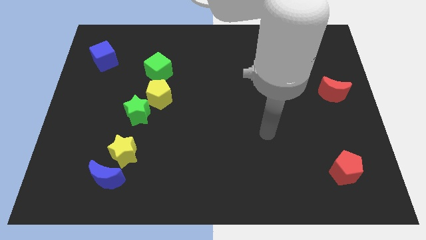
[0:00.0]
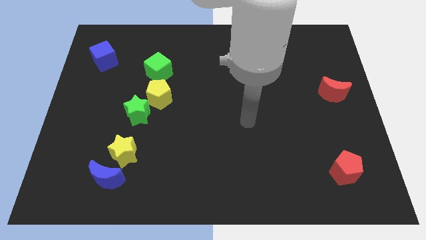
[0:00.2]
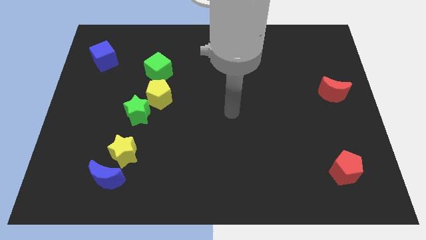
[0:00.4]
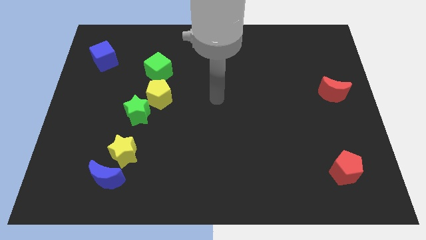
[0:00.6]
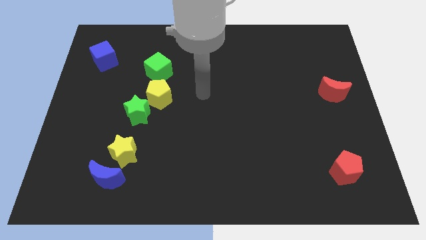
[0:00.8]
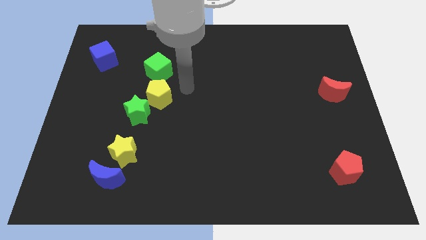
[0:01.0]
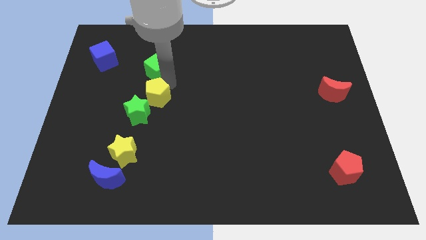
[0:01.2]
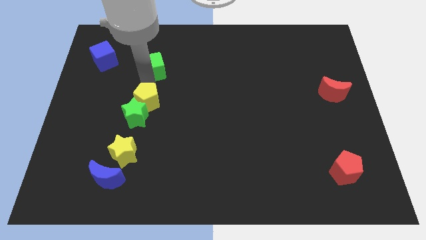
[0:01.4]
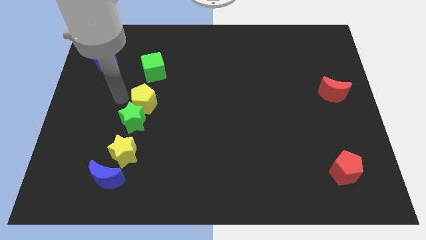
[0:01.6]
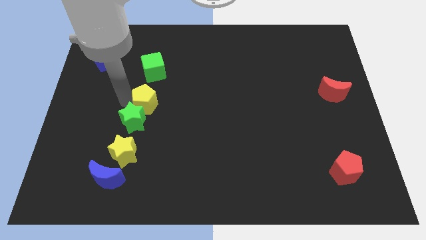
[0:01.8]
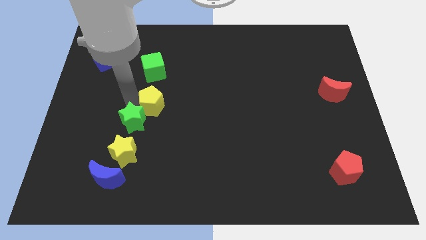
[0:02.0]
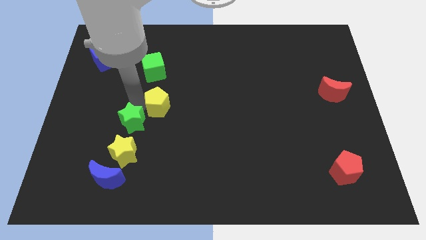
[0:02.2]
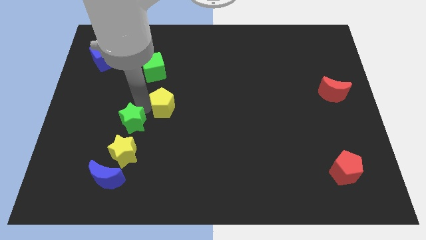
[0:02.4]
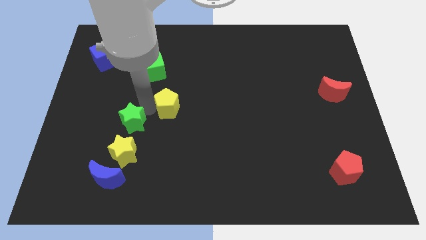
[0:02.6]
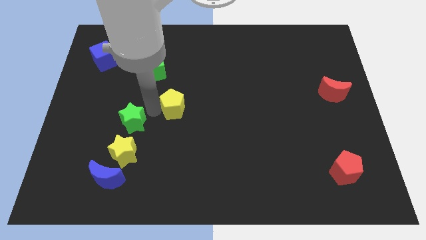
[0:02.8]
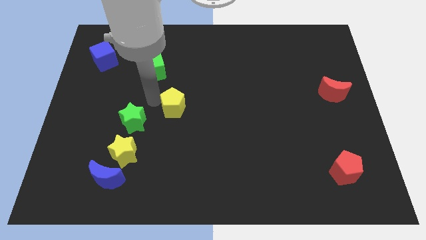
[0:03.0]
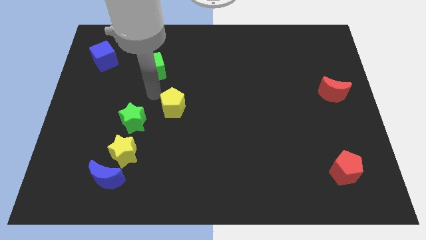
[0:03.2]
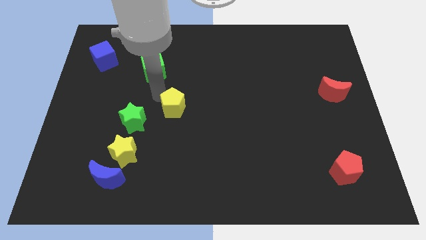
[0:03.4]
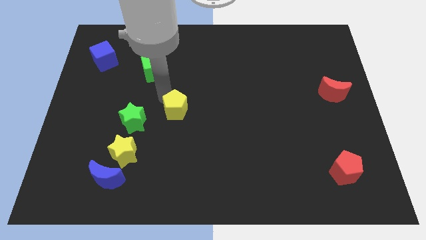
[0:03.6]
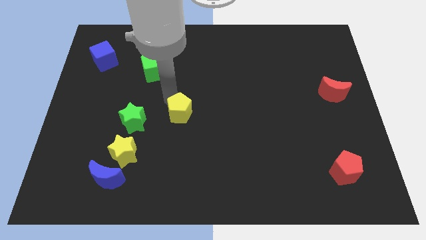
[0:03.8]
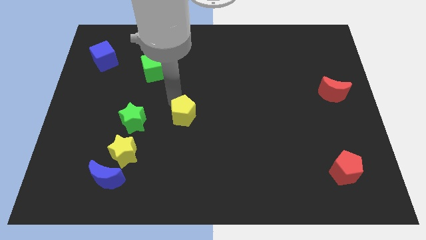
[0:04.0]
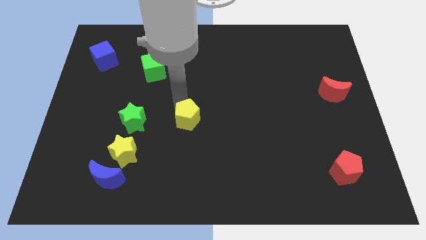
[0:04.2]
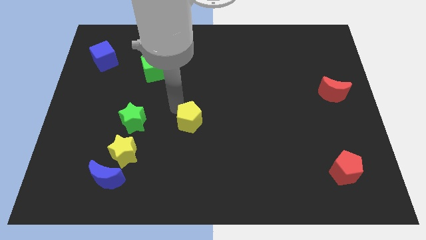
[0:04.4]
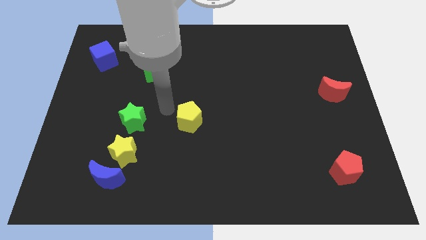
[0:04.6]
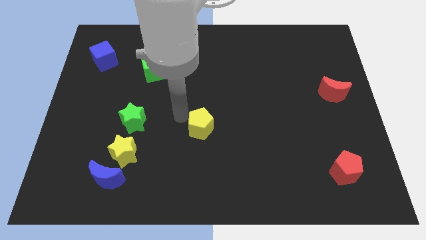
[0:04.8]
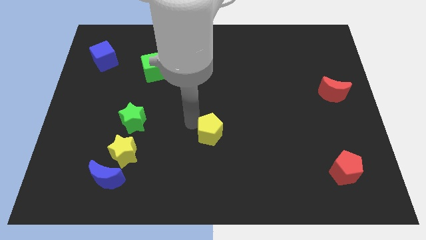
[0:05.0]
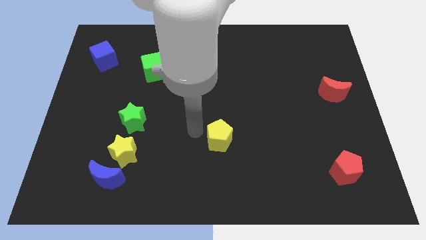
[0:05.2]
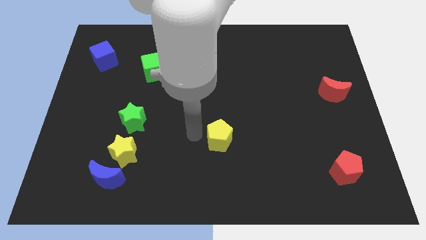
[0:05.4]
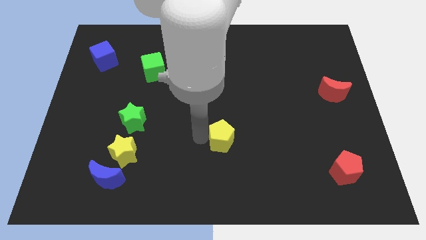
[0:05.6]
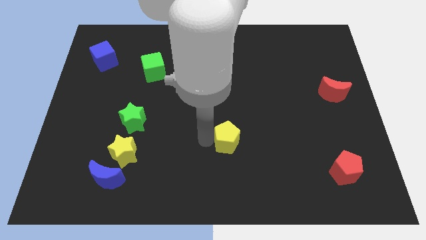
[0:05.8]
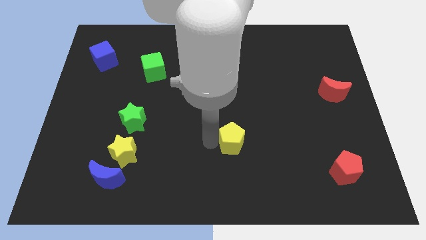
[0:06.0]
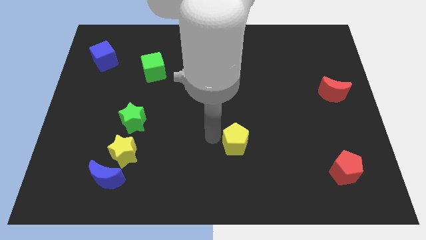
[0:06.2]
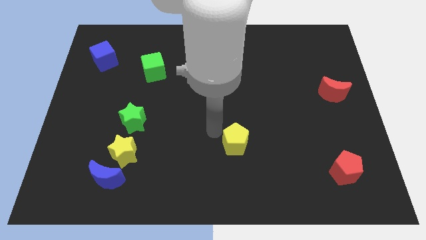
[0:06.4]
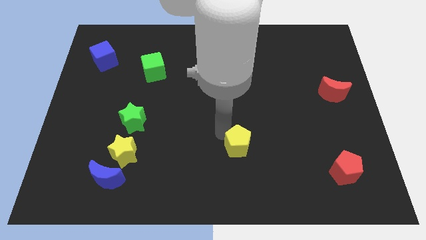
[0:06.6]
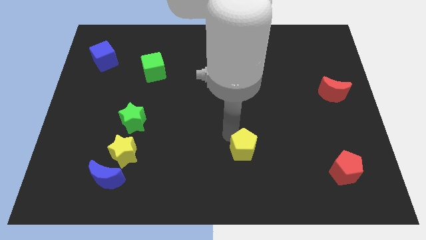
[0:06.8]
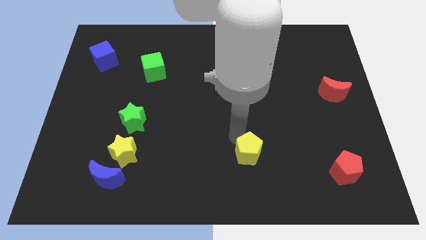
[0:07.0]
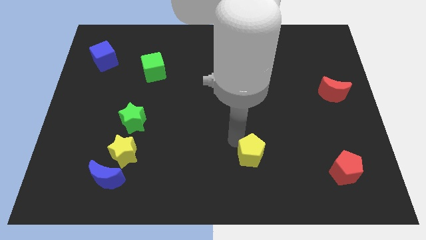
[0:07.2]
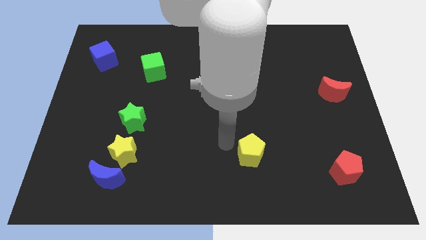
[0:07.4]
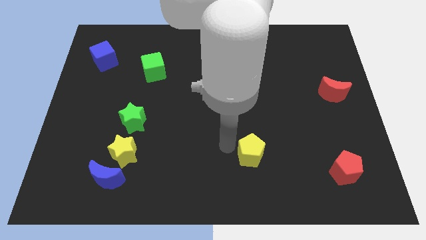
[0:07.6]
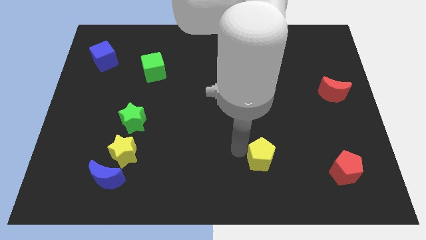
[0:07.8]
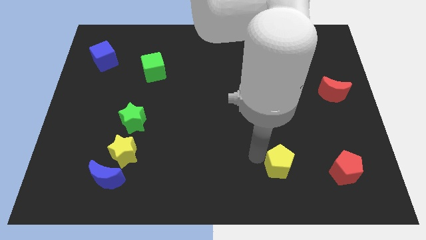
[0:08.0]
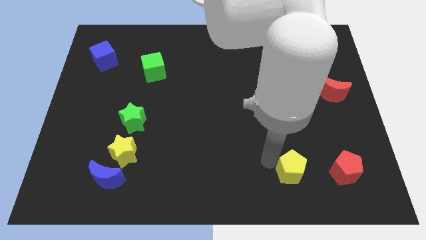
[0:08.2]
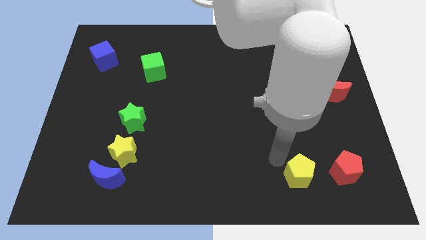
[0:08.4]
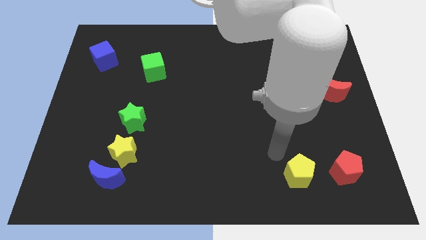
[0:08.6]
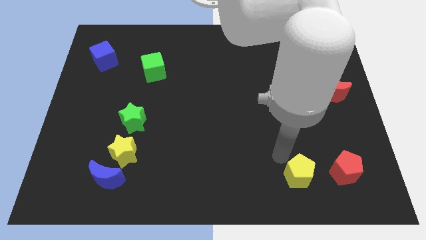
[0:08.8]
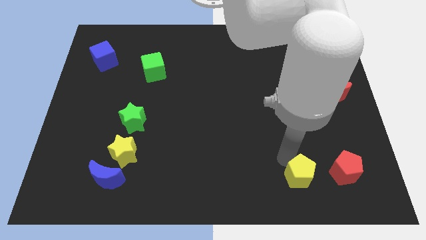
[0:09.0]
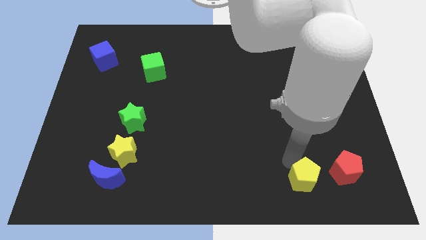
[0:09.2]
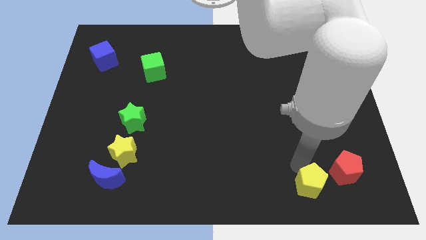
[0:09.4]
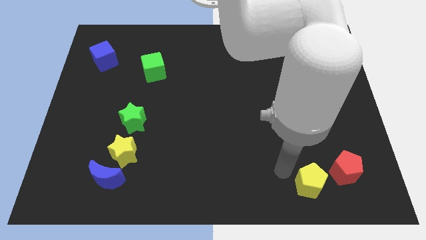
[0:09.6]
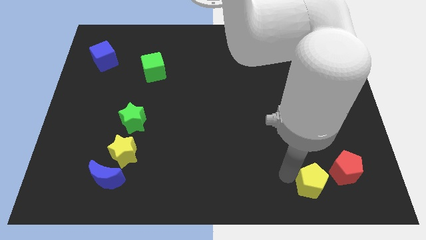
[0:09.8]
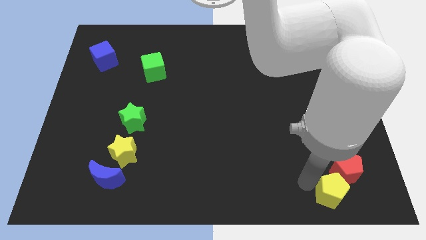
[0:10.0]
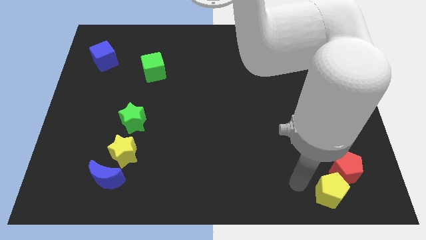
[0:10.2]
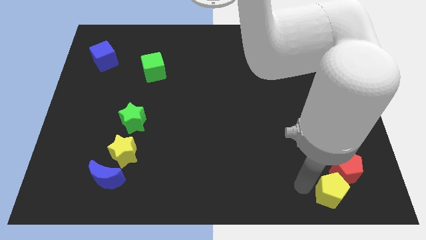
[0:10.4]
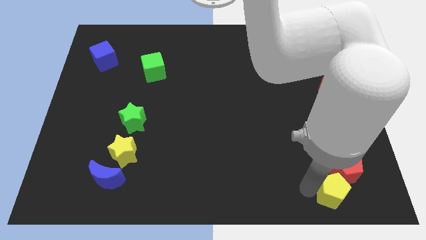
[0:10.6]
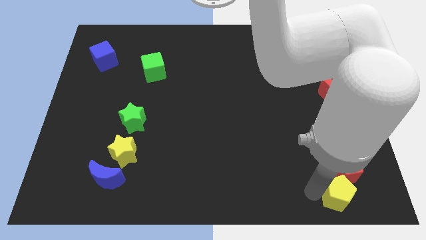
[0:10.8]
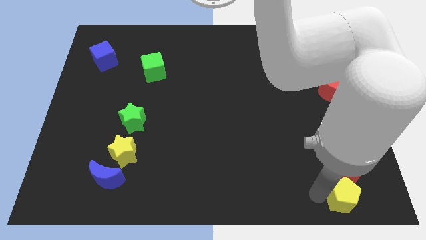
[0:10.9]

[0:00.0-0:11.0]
move the yellow pentagon to the bottom right corner

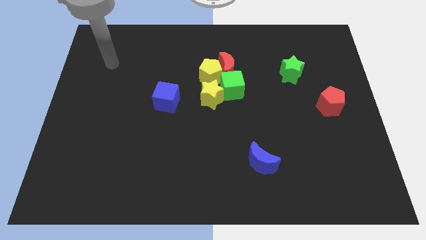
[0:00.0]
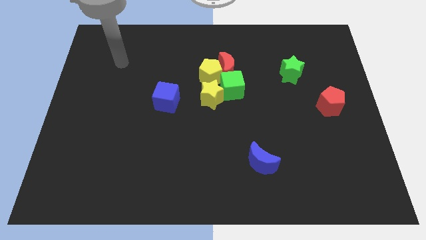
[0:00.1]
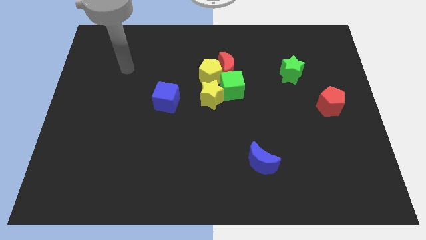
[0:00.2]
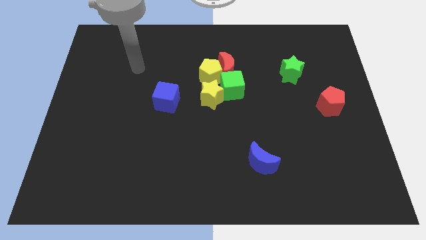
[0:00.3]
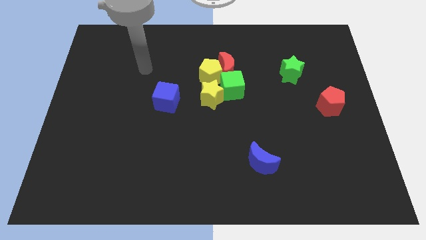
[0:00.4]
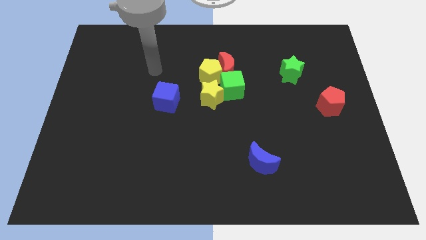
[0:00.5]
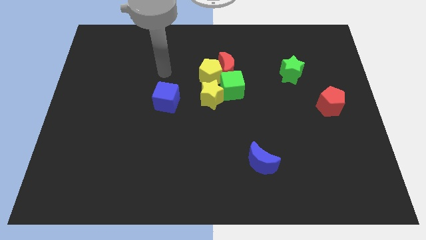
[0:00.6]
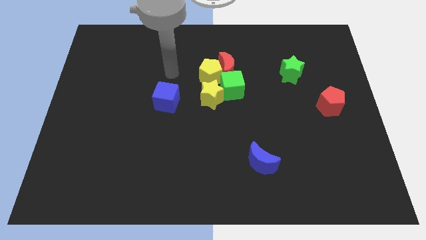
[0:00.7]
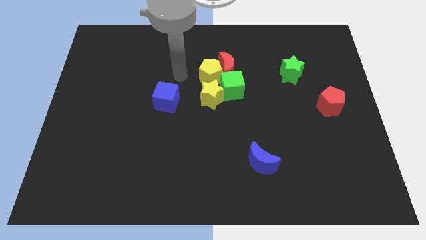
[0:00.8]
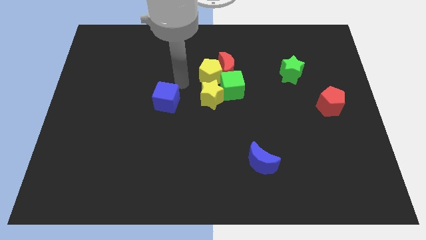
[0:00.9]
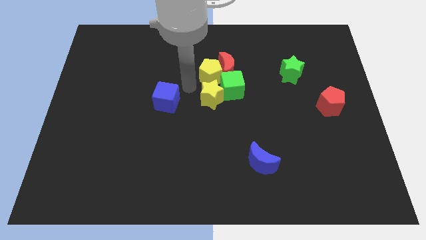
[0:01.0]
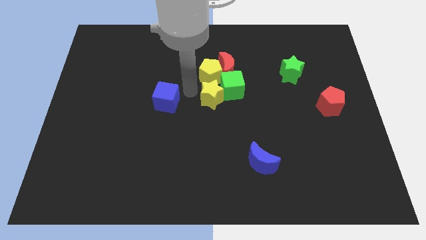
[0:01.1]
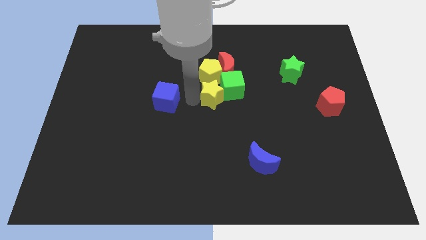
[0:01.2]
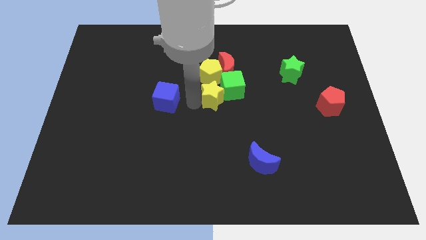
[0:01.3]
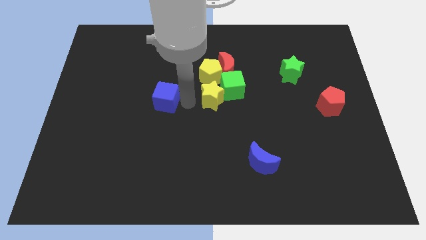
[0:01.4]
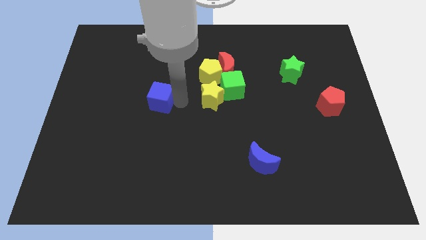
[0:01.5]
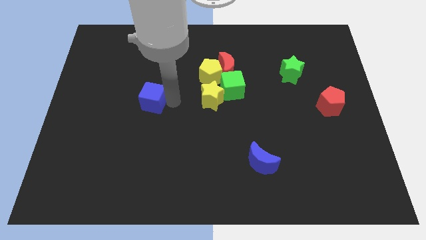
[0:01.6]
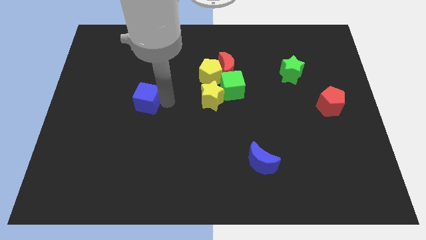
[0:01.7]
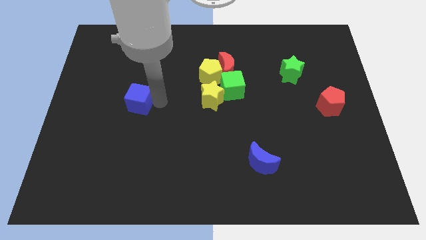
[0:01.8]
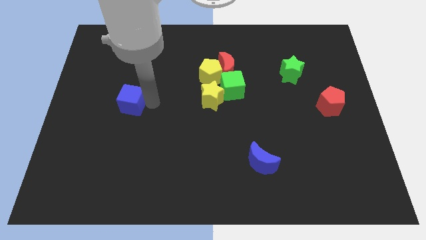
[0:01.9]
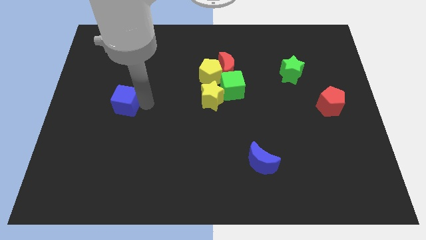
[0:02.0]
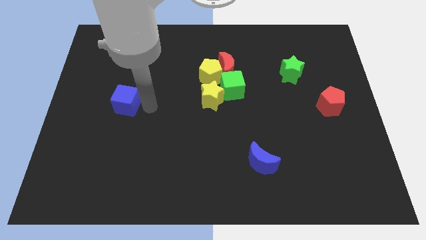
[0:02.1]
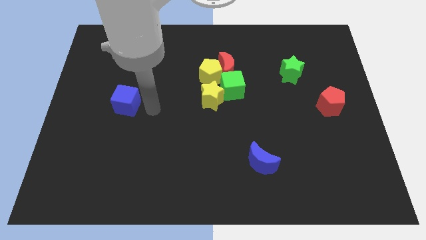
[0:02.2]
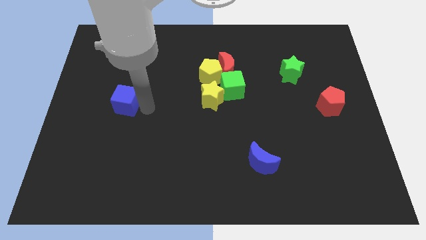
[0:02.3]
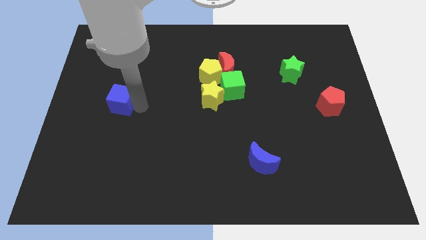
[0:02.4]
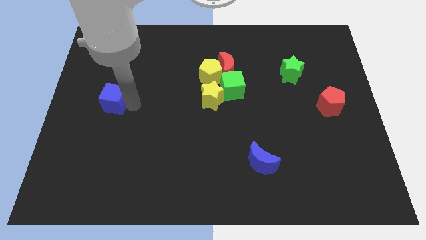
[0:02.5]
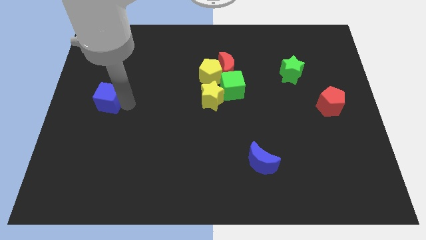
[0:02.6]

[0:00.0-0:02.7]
move the blue cube to the center left
